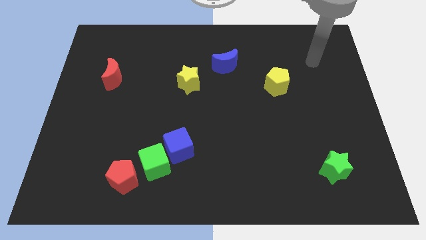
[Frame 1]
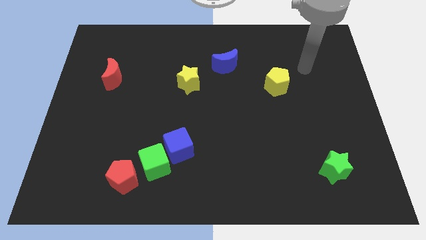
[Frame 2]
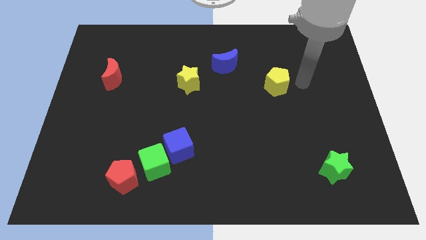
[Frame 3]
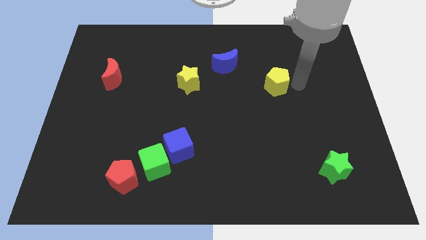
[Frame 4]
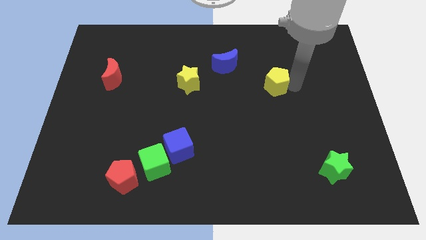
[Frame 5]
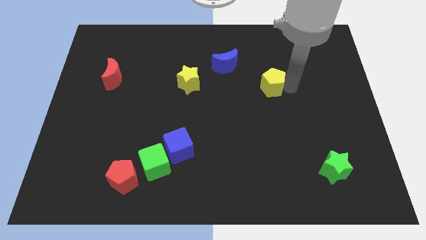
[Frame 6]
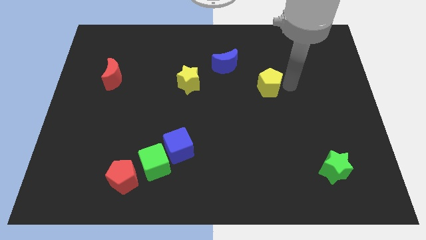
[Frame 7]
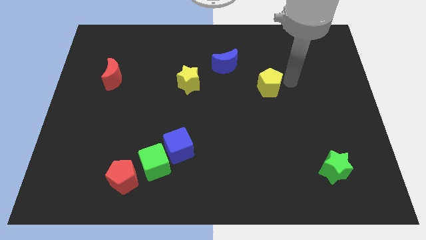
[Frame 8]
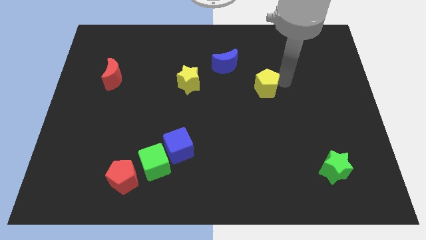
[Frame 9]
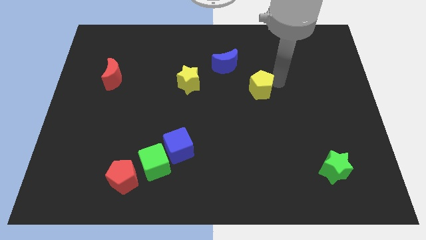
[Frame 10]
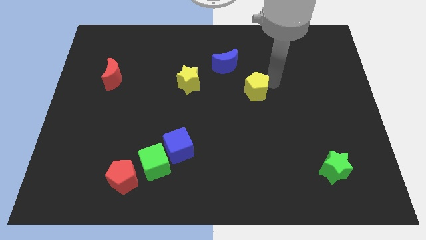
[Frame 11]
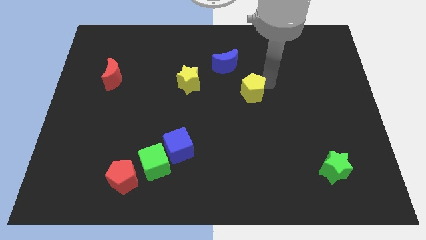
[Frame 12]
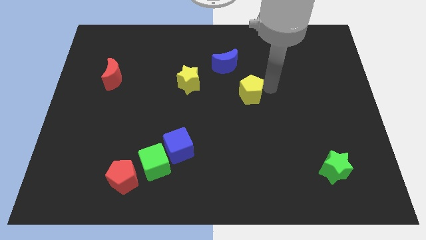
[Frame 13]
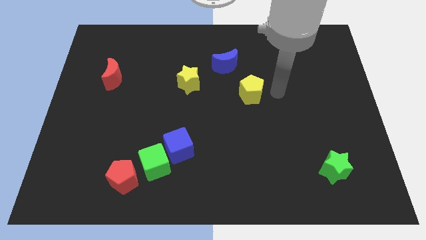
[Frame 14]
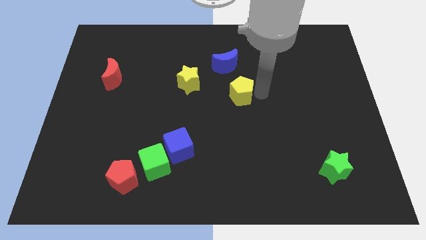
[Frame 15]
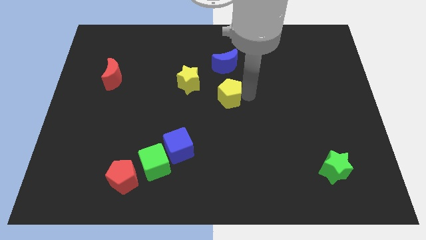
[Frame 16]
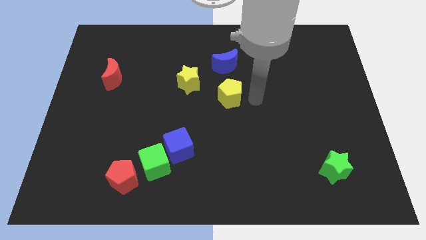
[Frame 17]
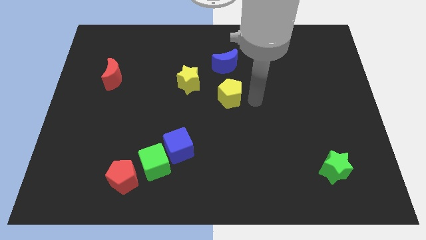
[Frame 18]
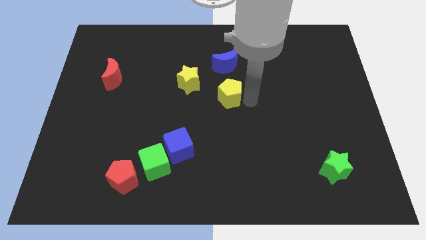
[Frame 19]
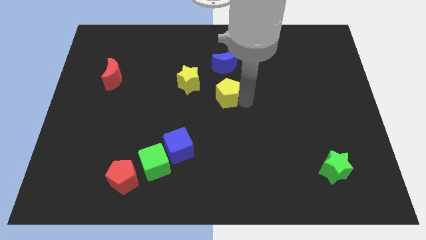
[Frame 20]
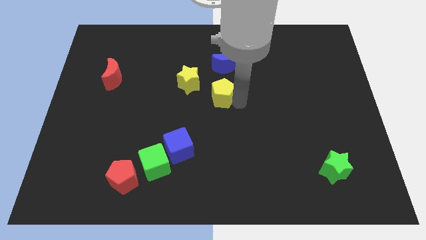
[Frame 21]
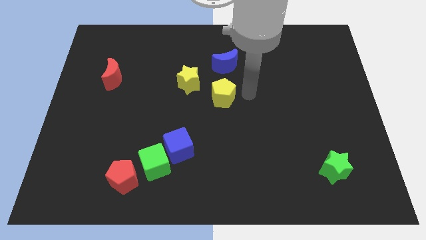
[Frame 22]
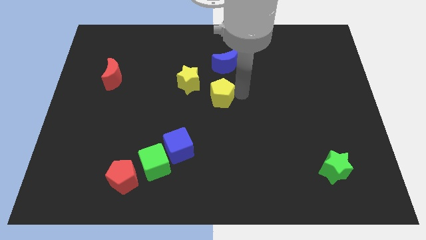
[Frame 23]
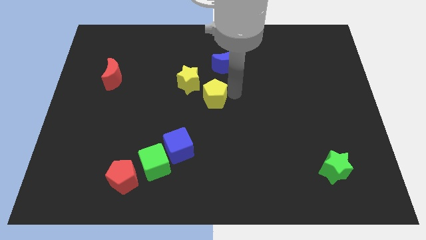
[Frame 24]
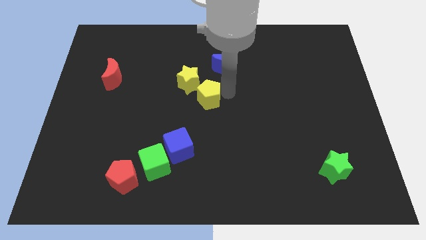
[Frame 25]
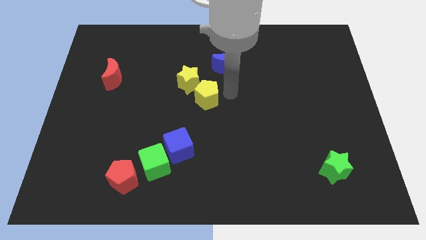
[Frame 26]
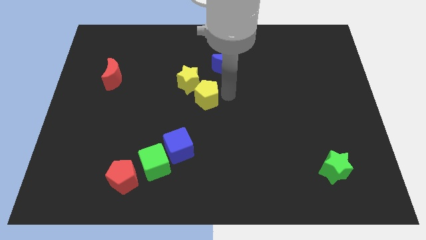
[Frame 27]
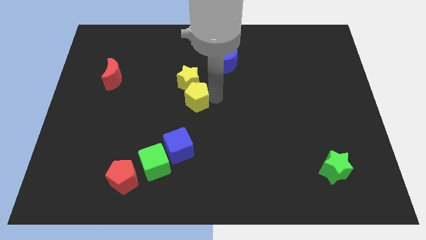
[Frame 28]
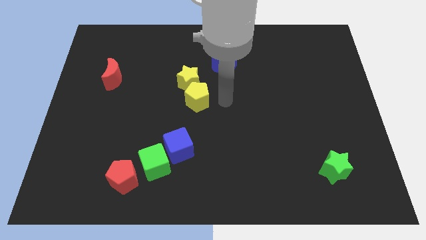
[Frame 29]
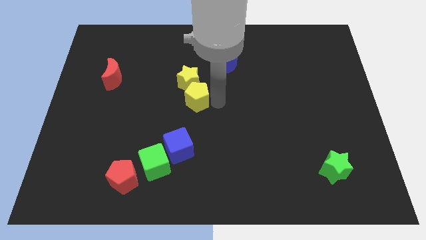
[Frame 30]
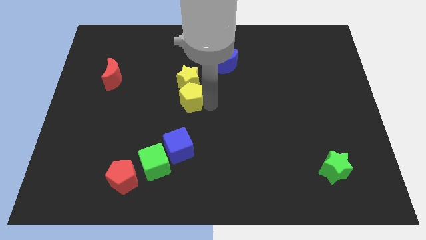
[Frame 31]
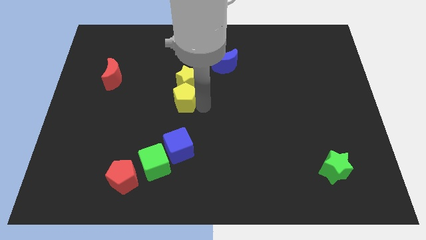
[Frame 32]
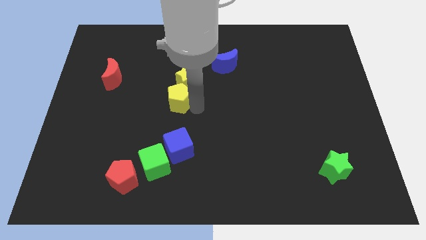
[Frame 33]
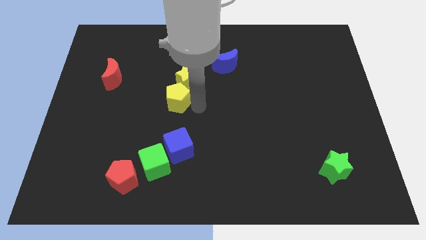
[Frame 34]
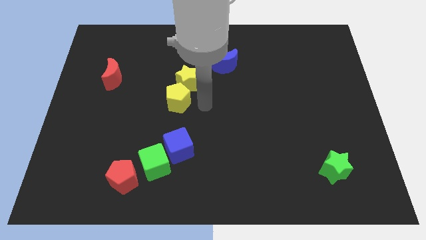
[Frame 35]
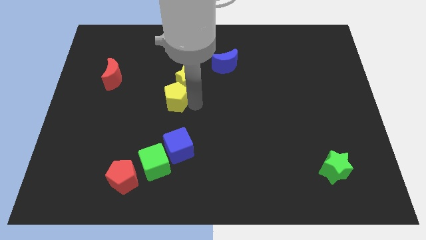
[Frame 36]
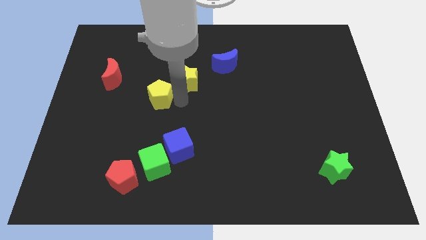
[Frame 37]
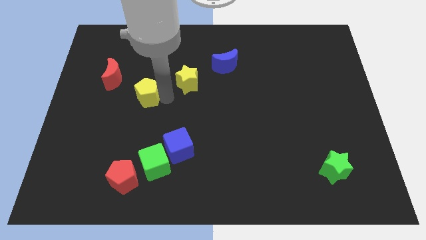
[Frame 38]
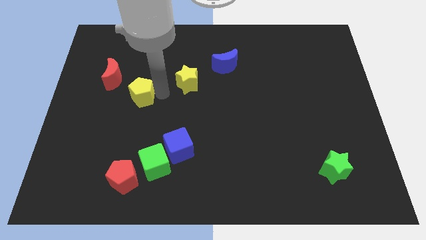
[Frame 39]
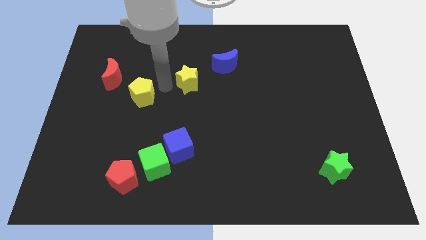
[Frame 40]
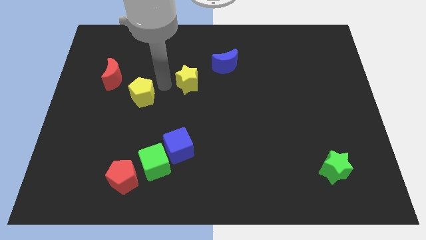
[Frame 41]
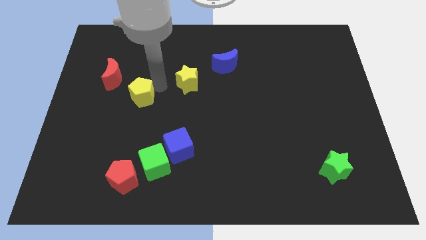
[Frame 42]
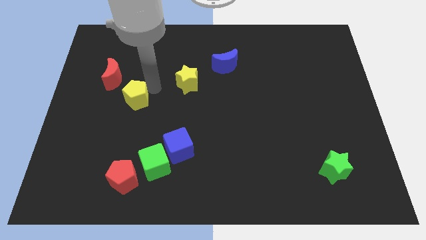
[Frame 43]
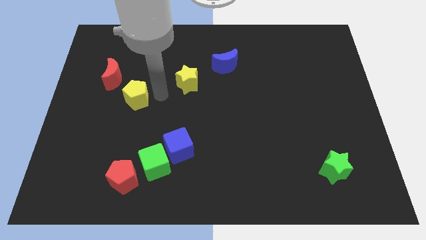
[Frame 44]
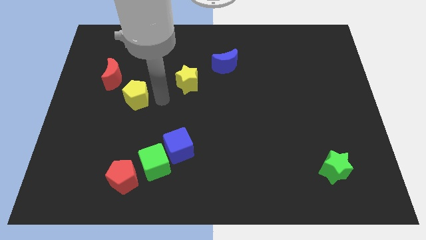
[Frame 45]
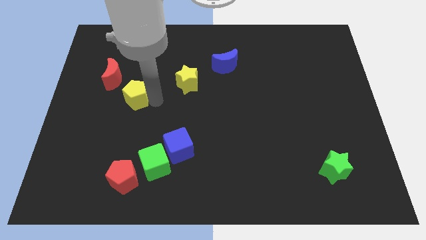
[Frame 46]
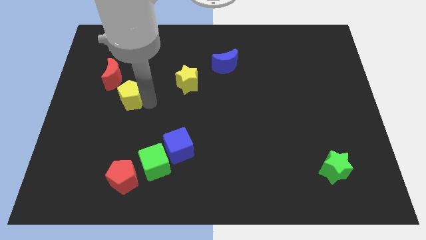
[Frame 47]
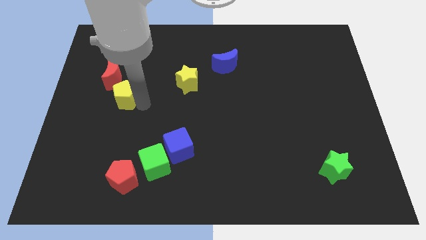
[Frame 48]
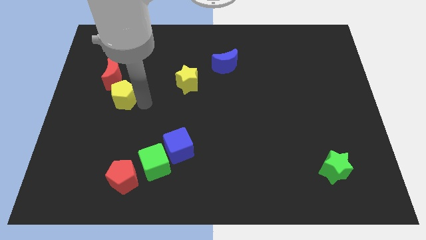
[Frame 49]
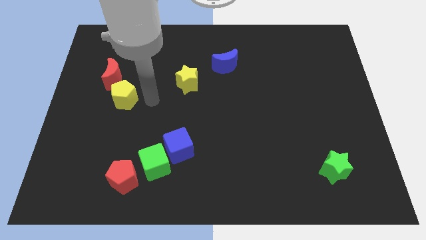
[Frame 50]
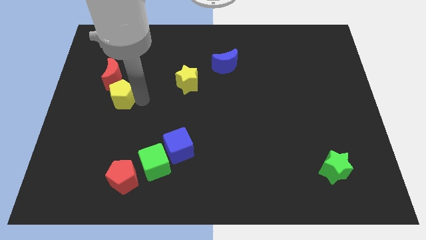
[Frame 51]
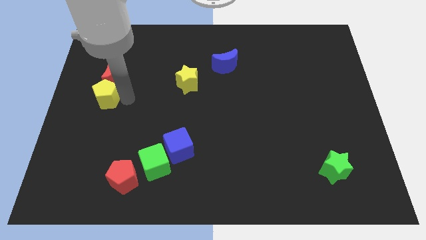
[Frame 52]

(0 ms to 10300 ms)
put the yellow pentagon to the center left
